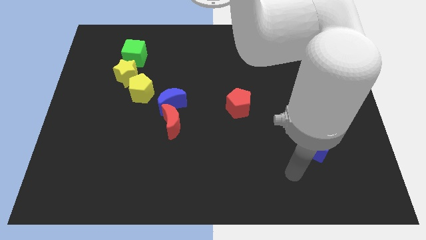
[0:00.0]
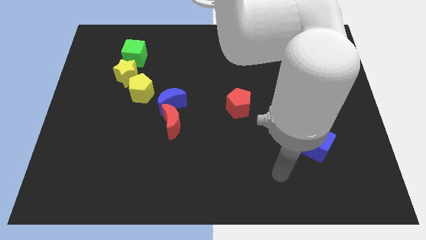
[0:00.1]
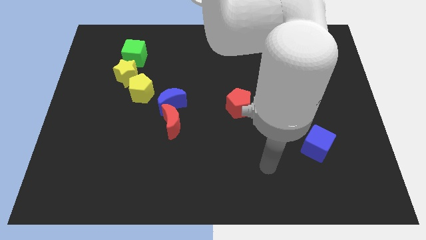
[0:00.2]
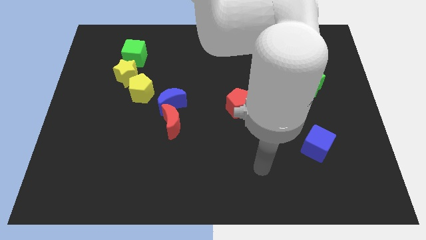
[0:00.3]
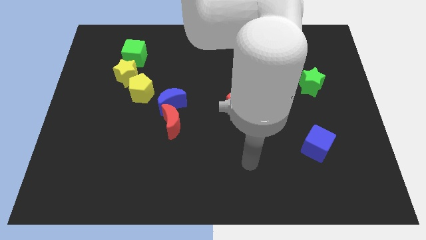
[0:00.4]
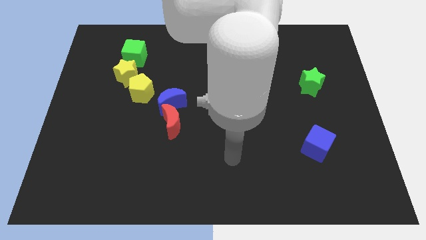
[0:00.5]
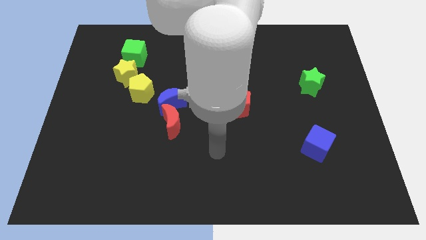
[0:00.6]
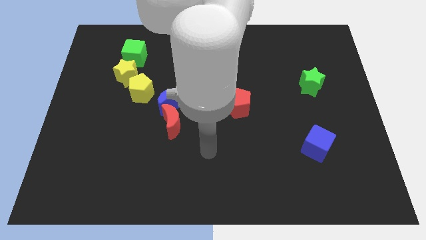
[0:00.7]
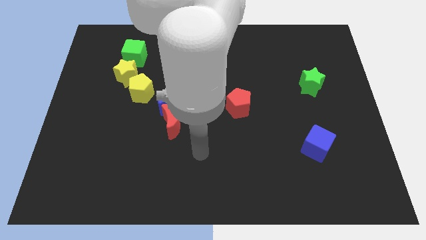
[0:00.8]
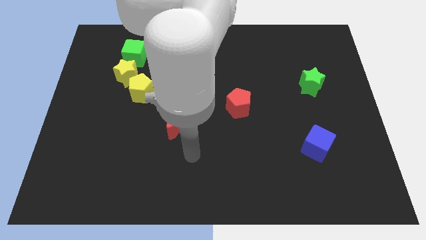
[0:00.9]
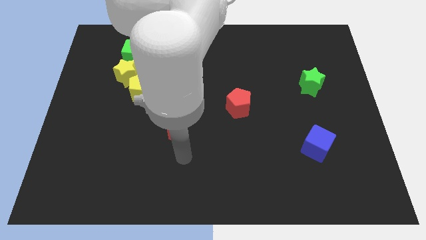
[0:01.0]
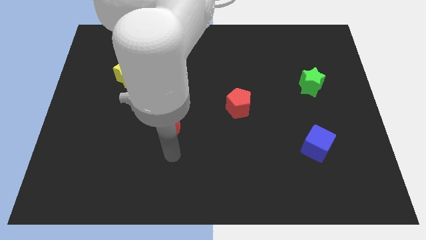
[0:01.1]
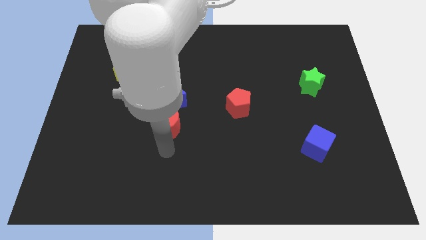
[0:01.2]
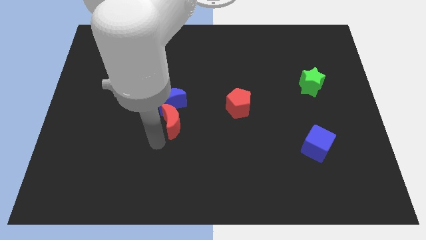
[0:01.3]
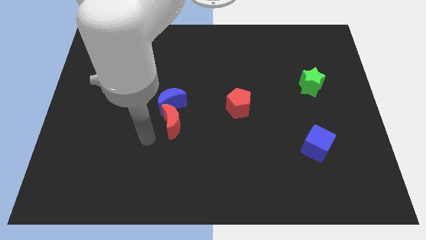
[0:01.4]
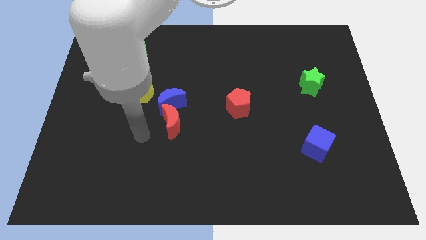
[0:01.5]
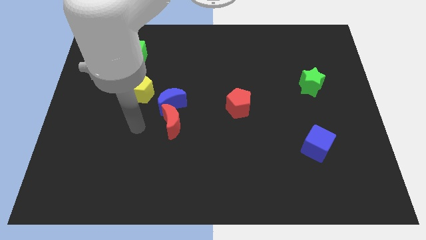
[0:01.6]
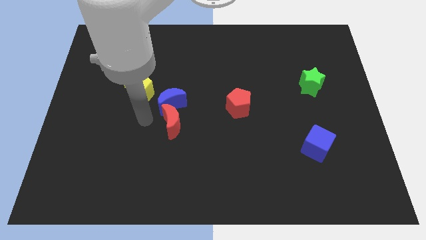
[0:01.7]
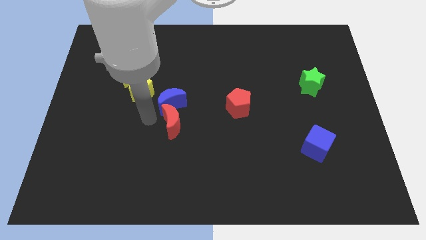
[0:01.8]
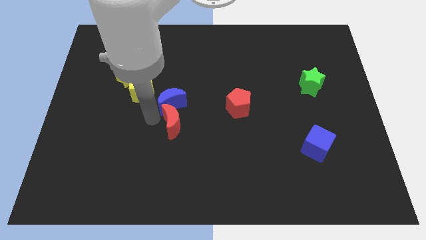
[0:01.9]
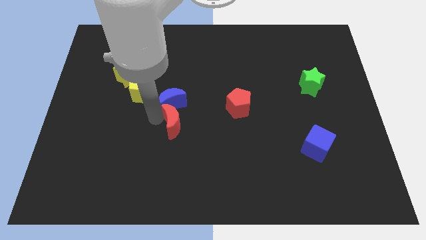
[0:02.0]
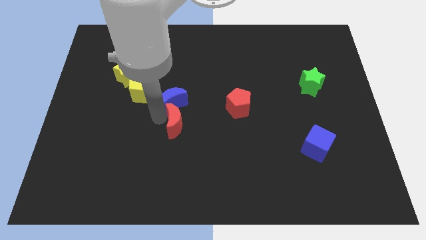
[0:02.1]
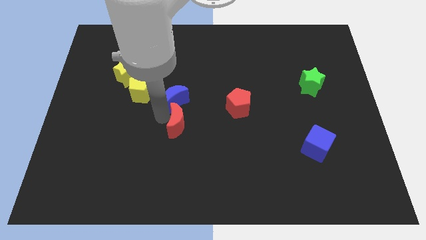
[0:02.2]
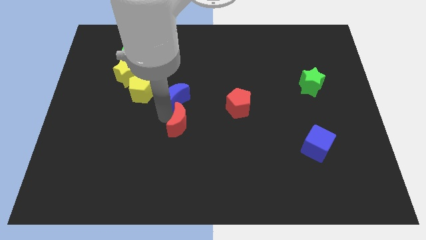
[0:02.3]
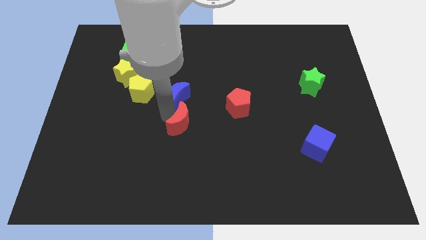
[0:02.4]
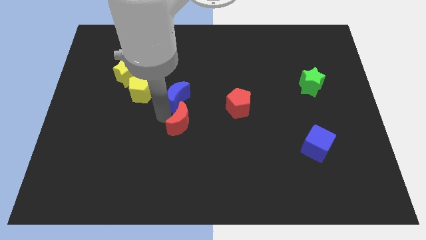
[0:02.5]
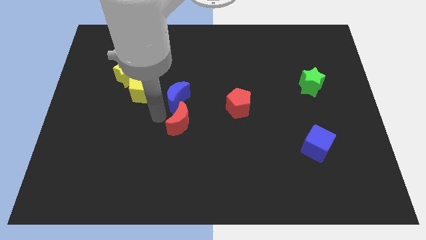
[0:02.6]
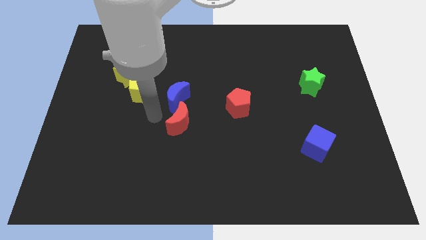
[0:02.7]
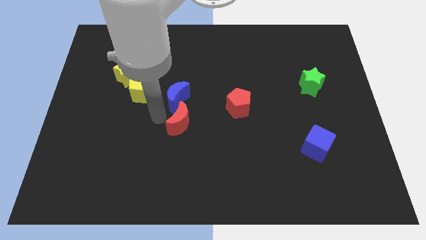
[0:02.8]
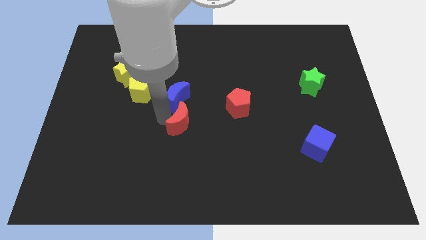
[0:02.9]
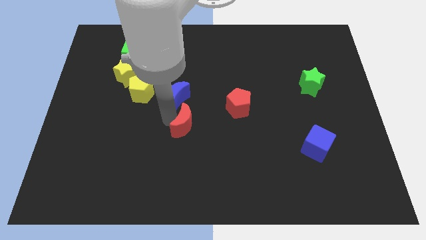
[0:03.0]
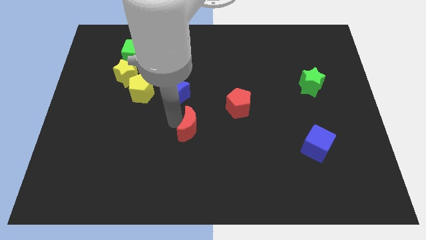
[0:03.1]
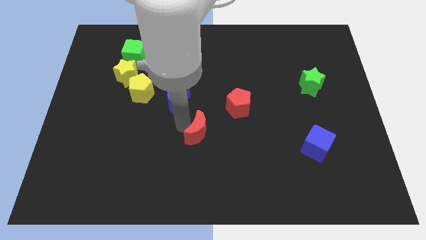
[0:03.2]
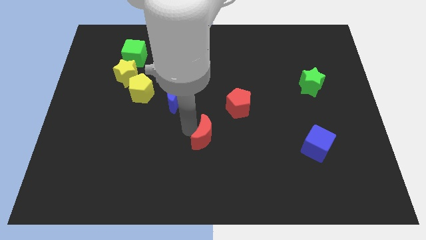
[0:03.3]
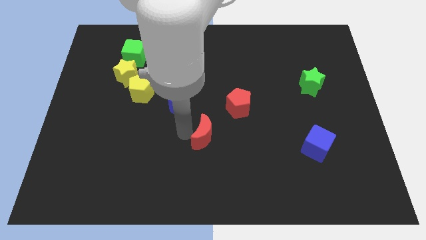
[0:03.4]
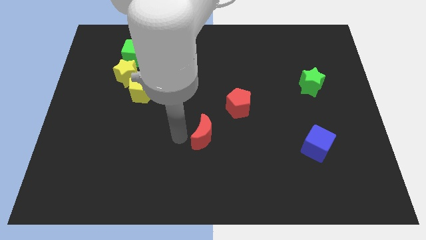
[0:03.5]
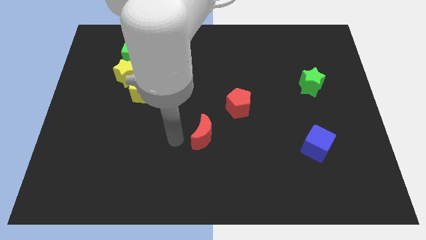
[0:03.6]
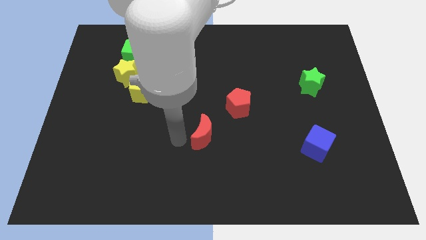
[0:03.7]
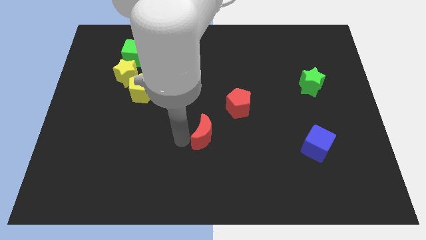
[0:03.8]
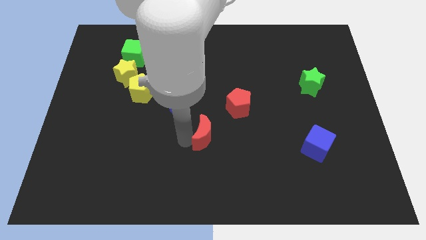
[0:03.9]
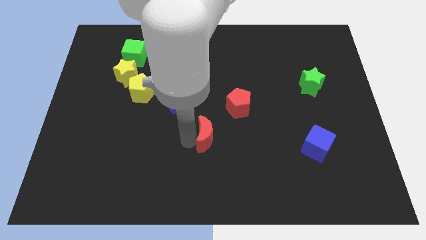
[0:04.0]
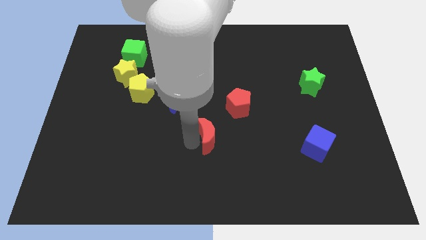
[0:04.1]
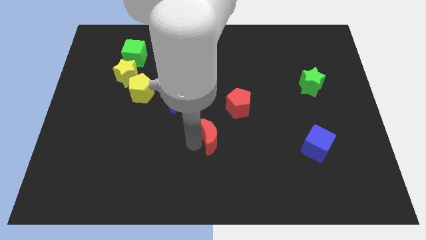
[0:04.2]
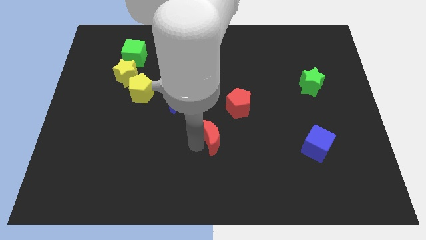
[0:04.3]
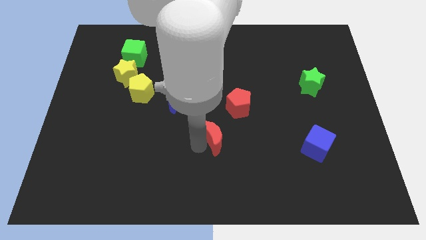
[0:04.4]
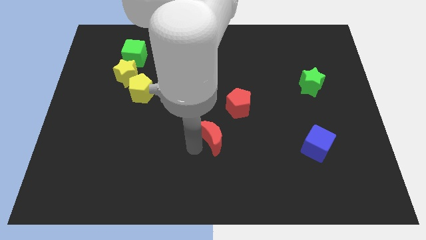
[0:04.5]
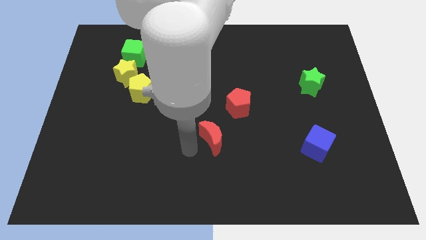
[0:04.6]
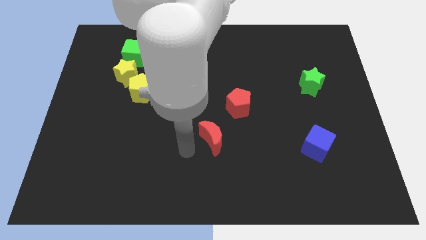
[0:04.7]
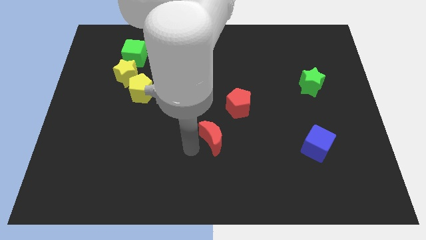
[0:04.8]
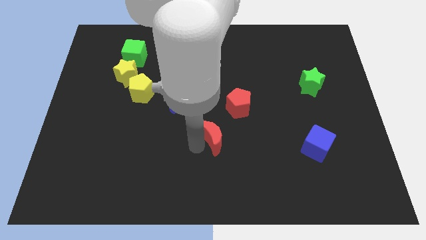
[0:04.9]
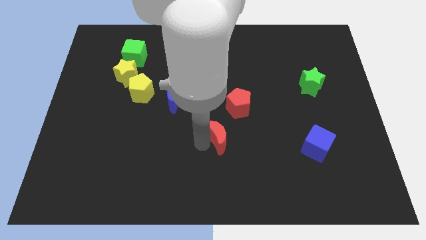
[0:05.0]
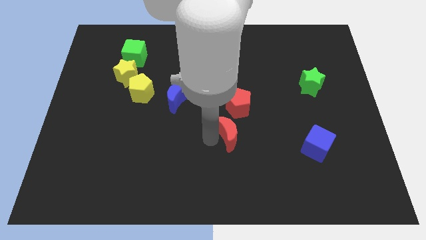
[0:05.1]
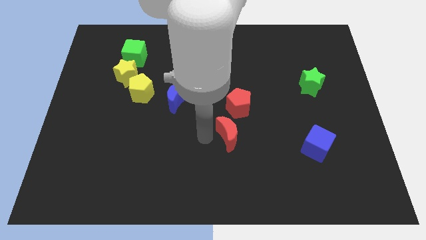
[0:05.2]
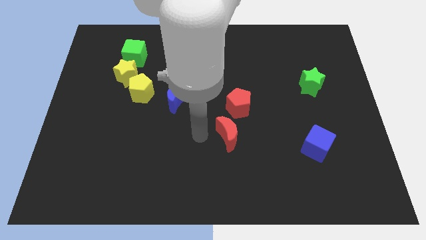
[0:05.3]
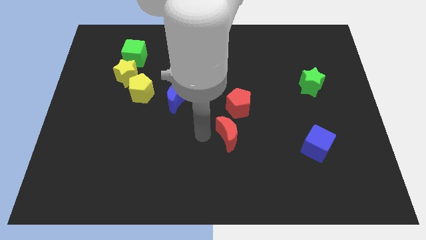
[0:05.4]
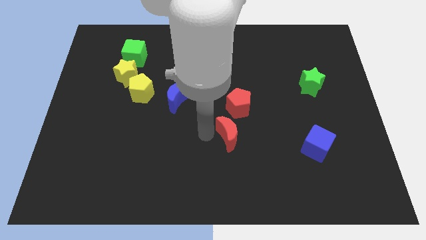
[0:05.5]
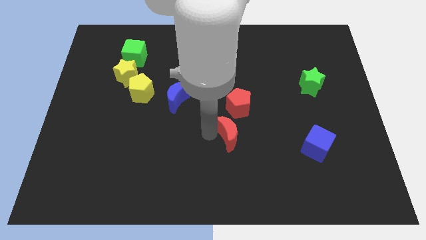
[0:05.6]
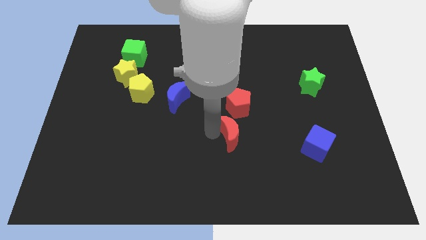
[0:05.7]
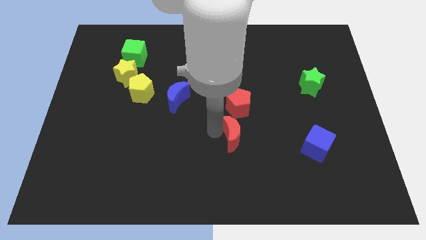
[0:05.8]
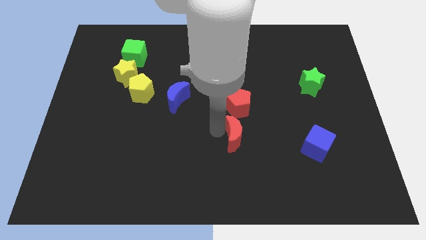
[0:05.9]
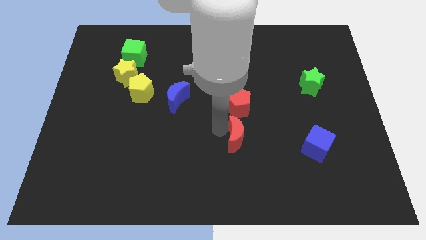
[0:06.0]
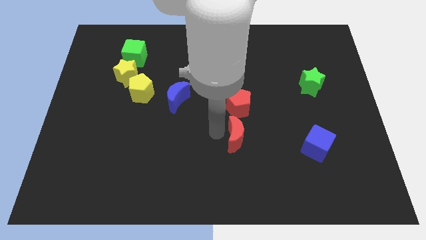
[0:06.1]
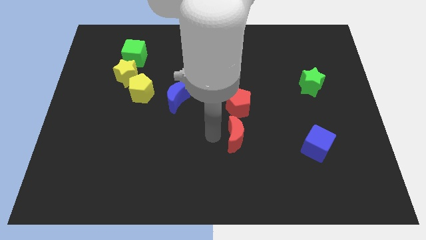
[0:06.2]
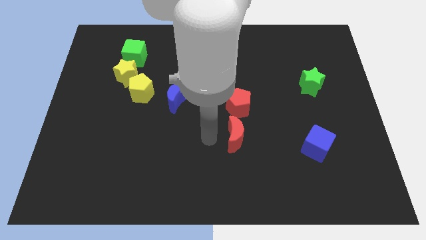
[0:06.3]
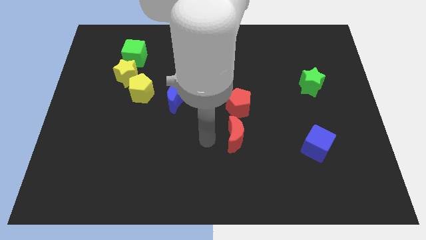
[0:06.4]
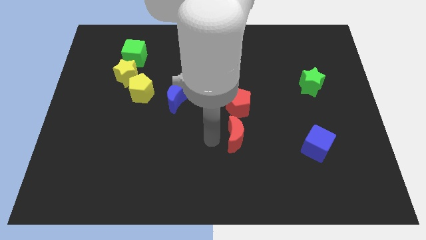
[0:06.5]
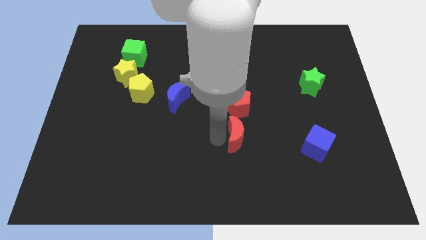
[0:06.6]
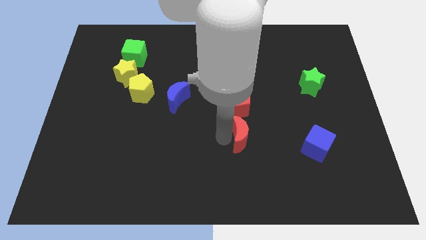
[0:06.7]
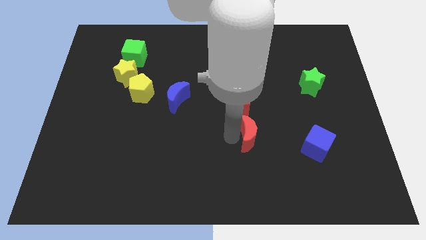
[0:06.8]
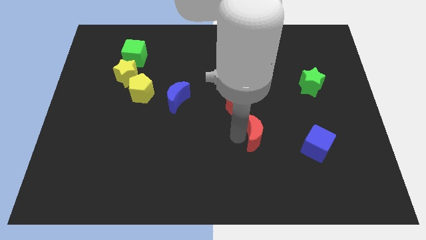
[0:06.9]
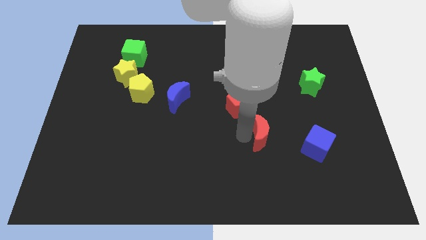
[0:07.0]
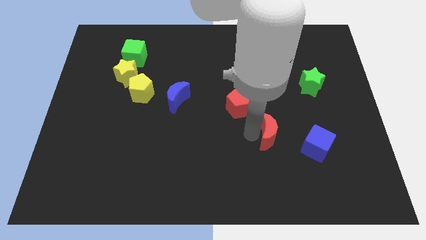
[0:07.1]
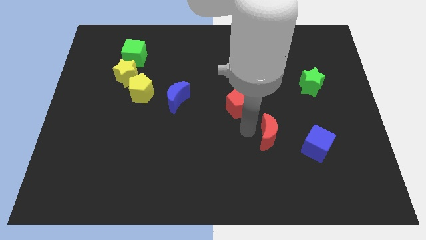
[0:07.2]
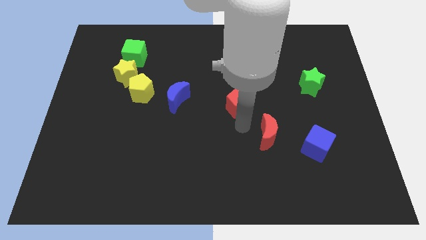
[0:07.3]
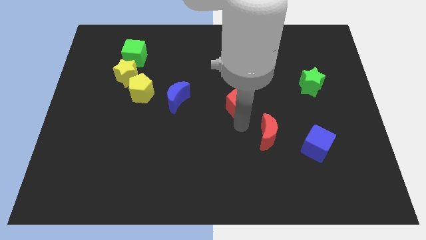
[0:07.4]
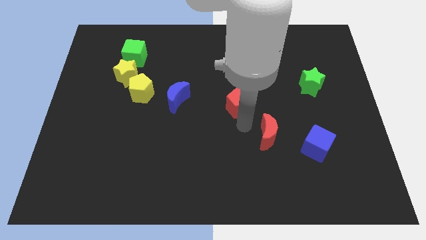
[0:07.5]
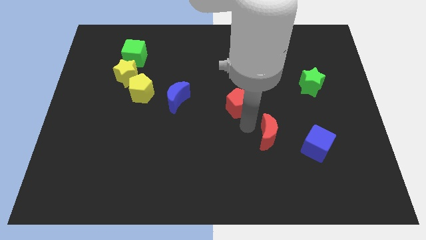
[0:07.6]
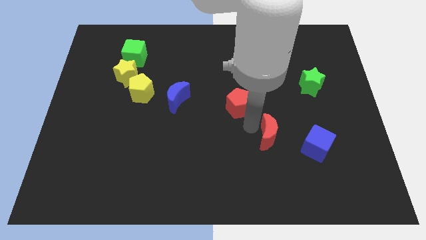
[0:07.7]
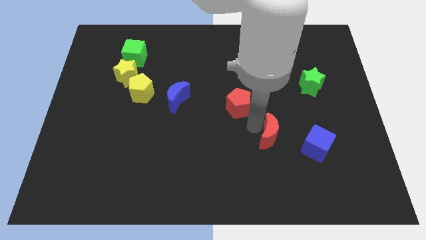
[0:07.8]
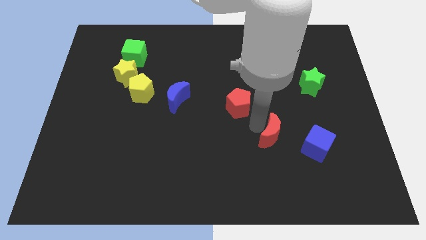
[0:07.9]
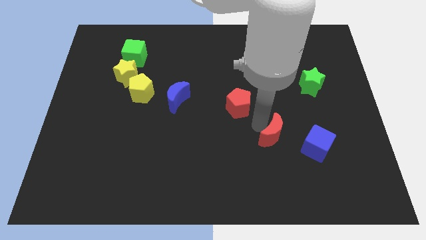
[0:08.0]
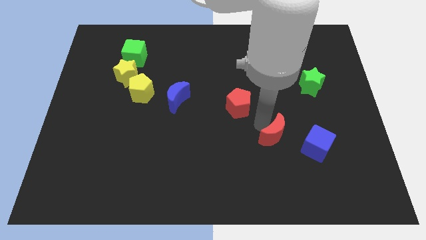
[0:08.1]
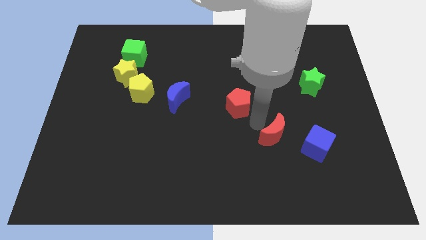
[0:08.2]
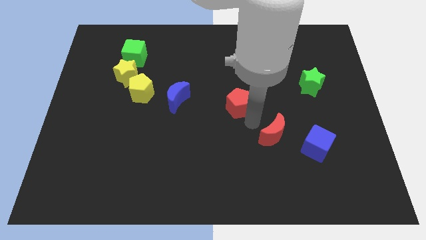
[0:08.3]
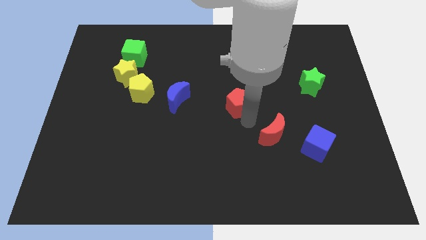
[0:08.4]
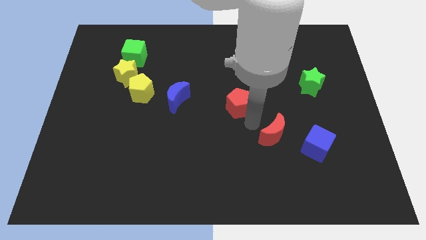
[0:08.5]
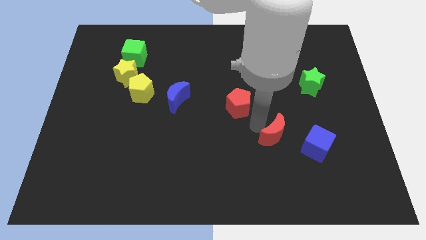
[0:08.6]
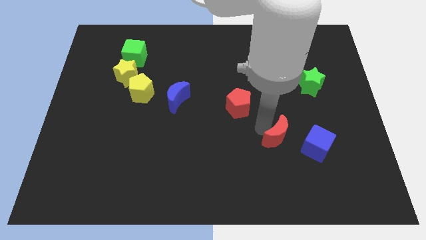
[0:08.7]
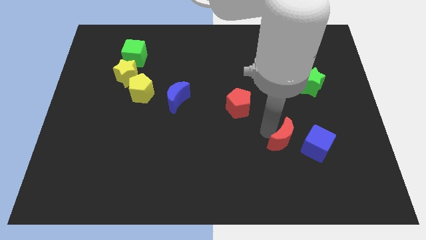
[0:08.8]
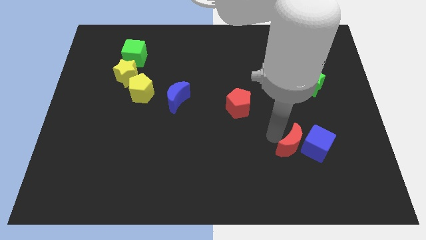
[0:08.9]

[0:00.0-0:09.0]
push the red moon to the blue cube
